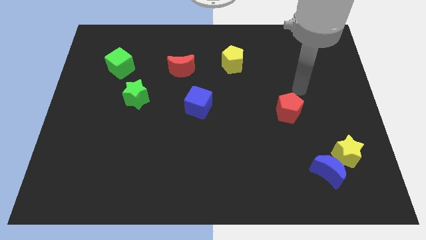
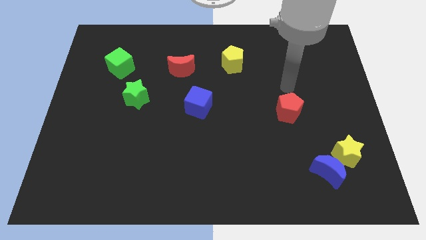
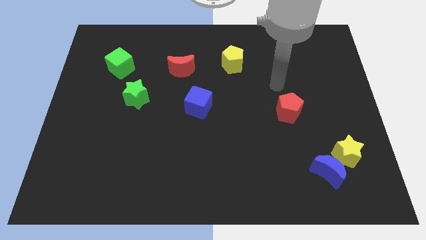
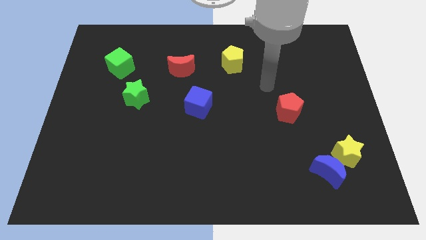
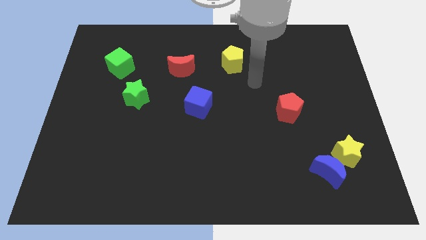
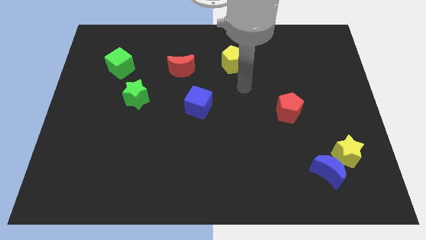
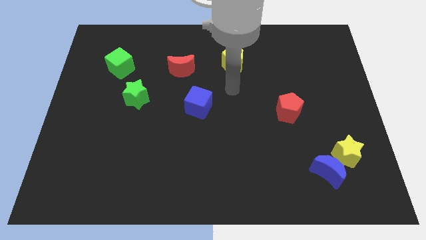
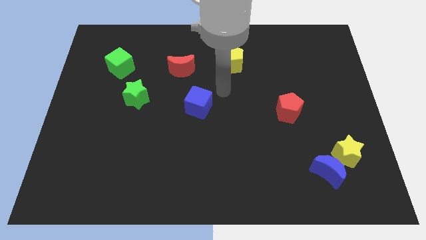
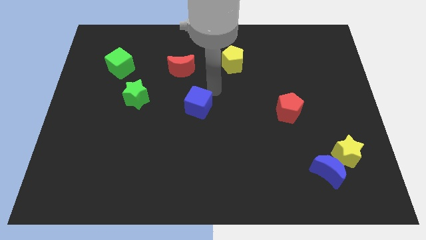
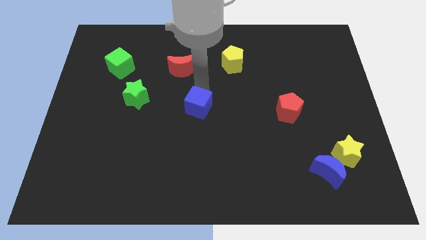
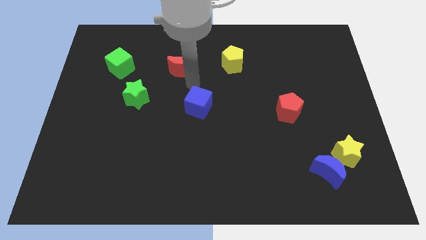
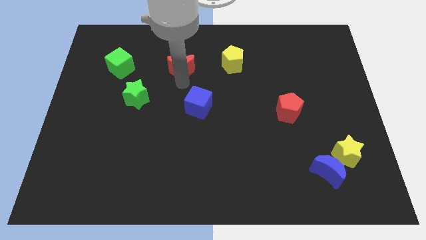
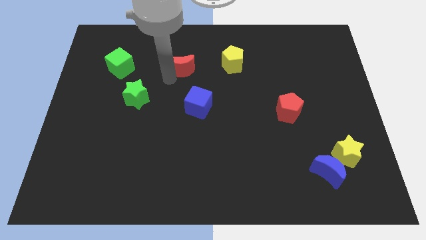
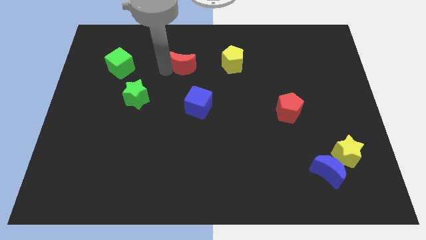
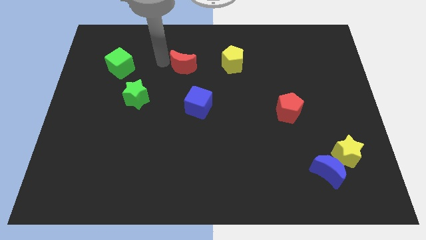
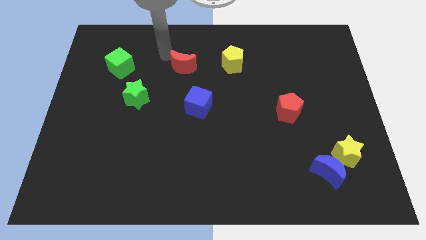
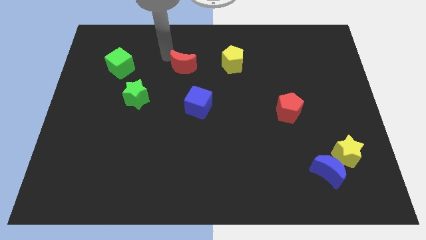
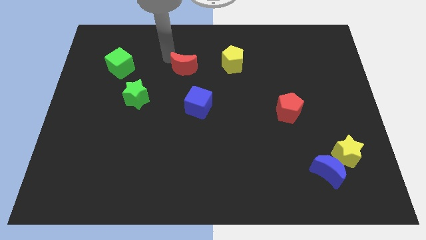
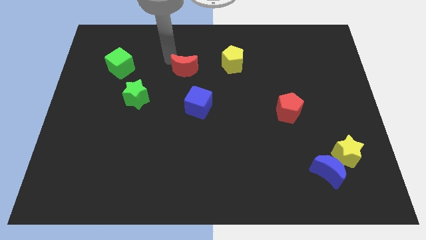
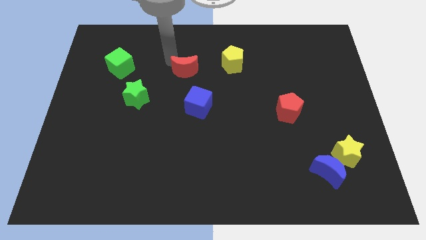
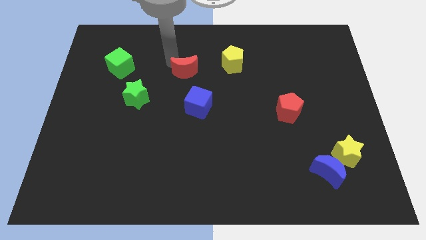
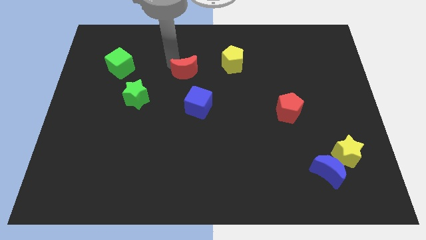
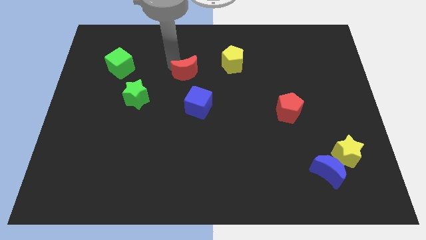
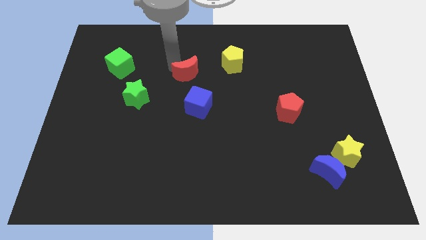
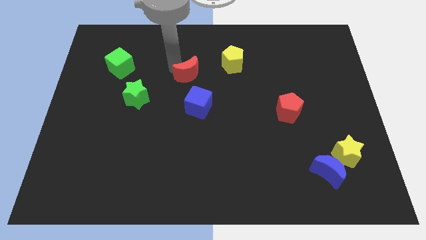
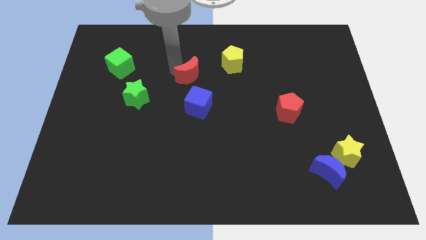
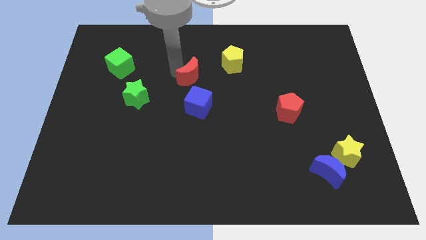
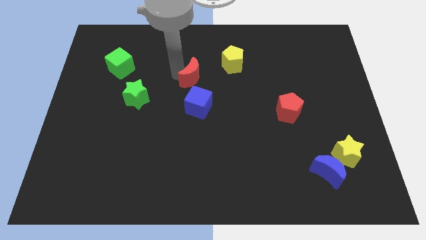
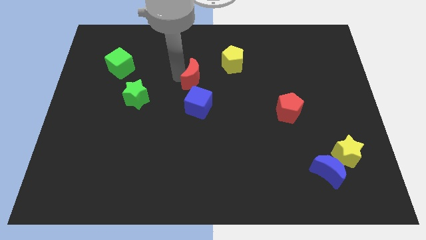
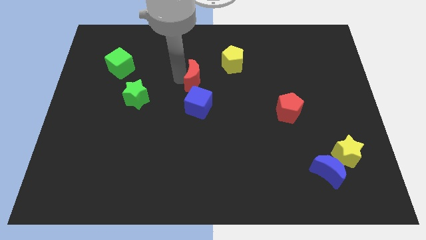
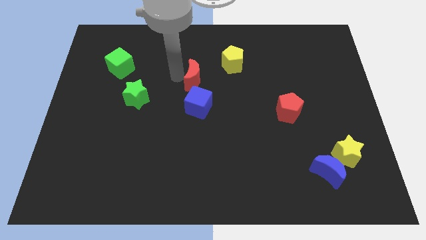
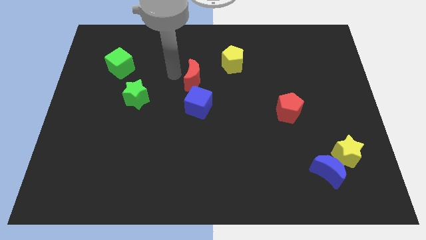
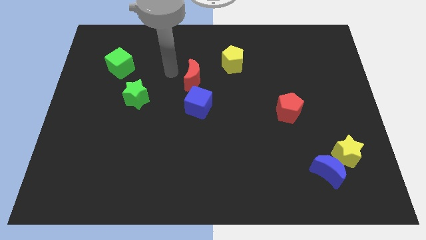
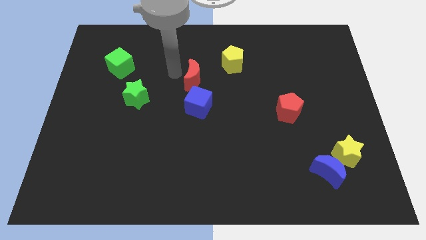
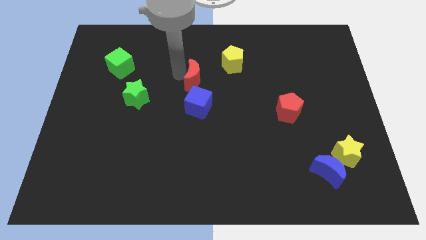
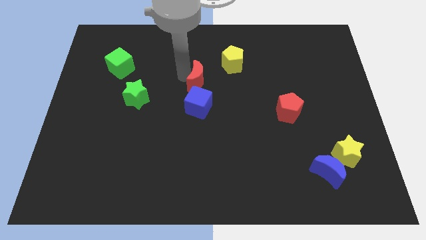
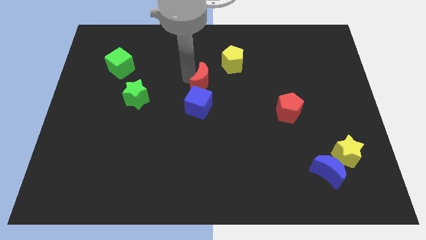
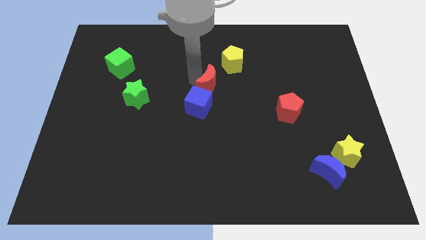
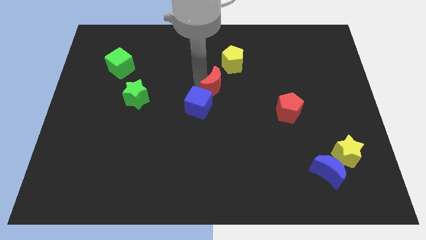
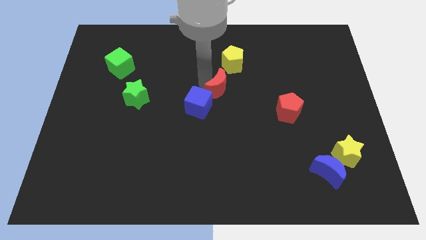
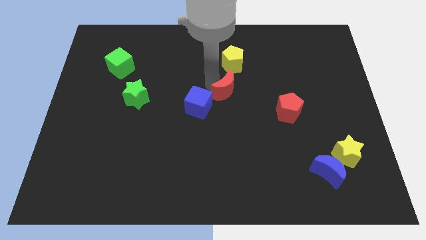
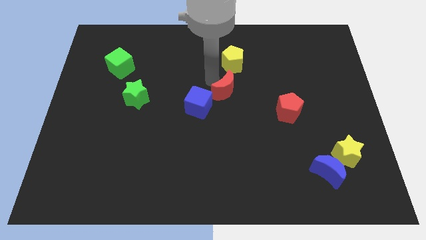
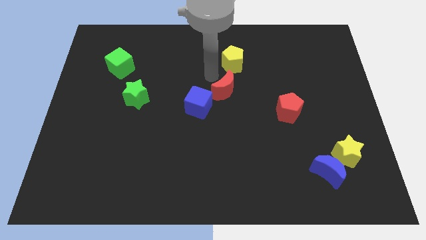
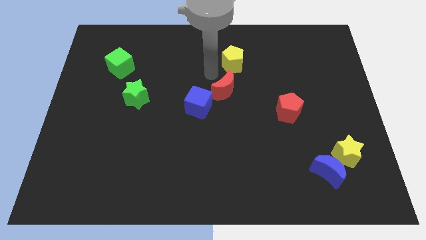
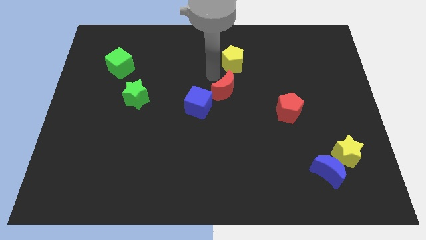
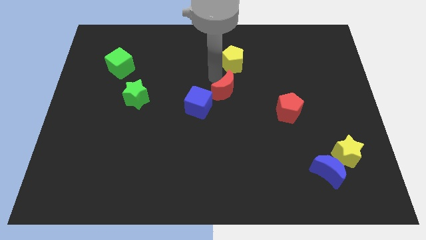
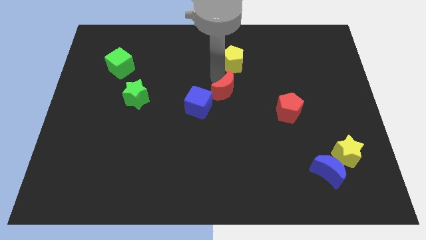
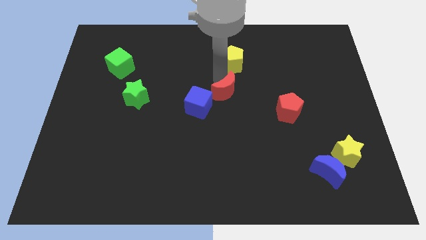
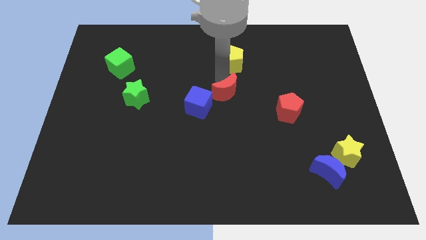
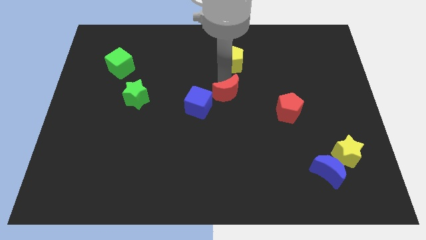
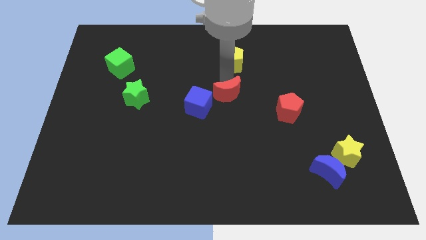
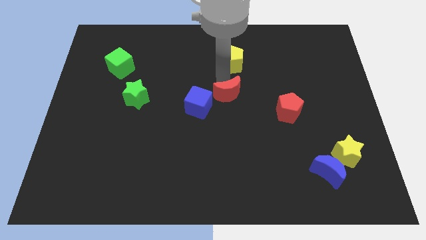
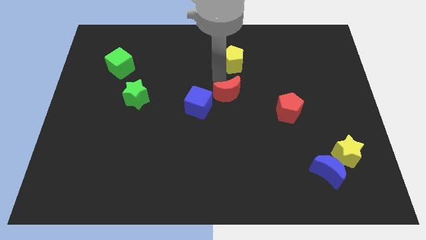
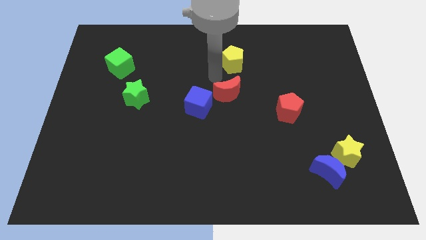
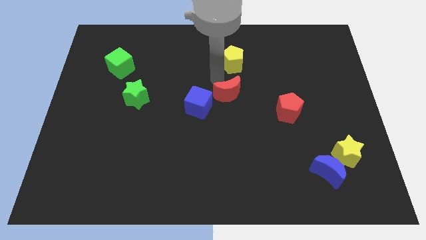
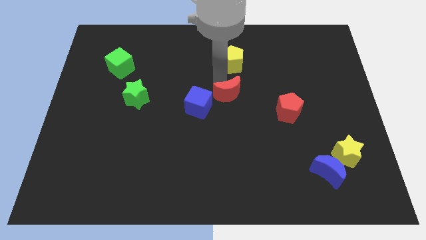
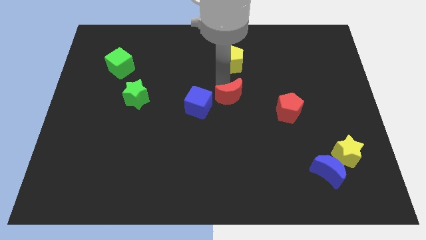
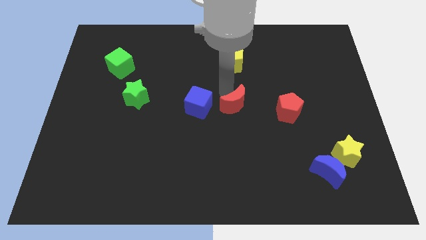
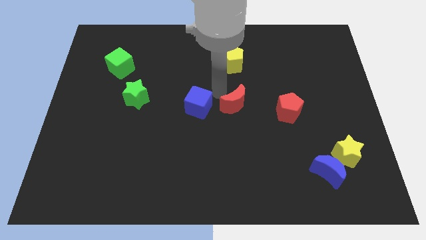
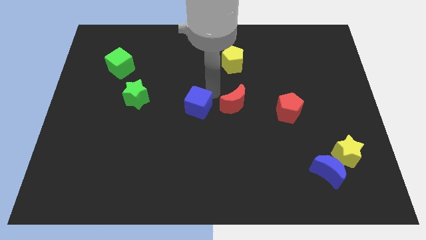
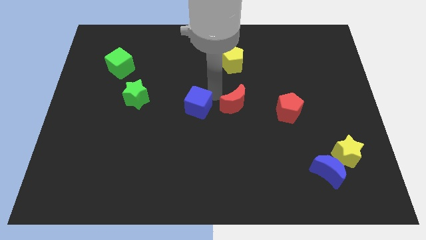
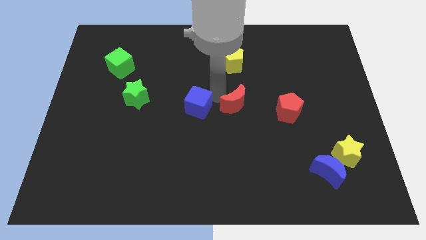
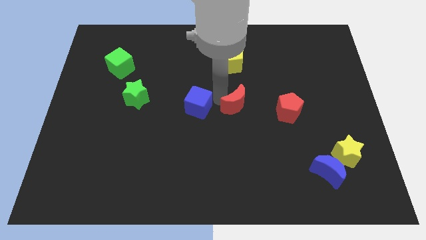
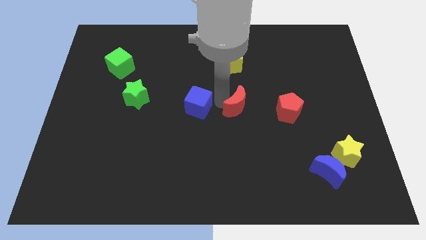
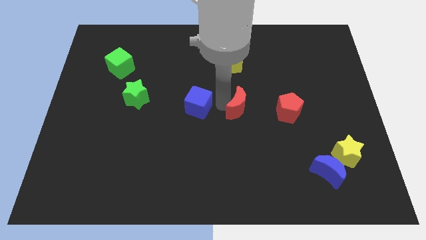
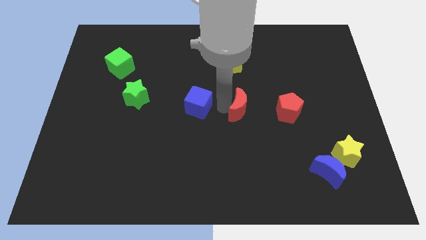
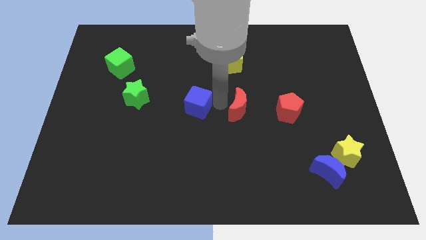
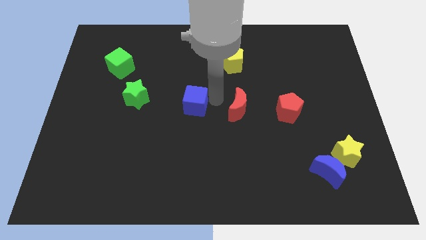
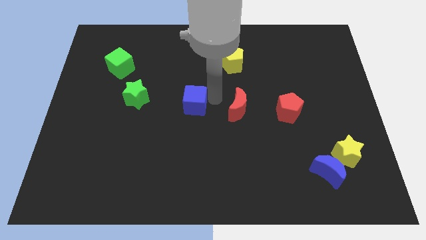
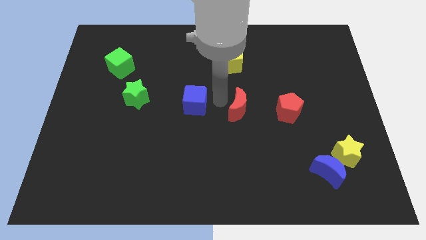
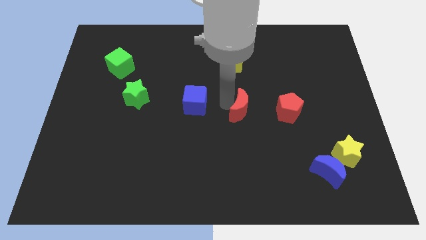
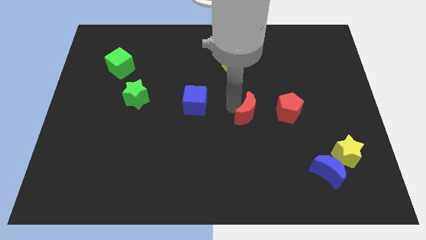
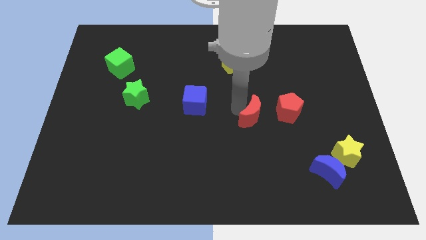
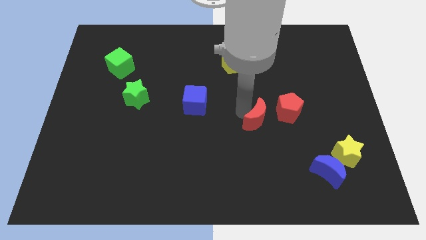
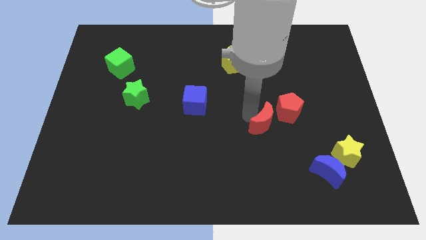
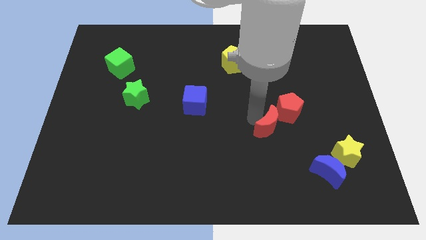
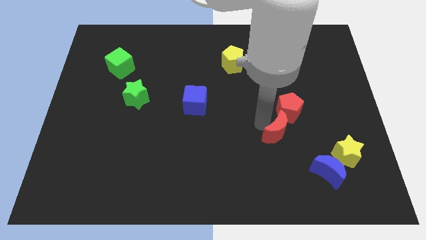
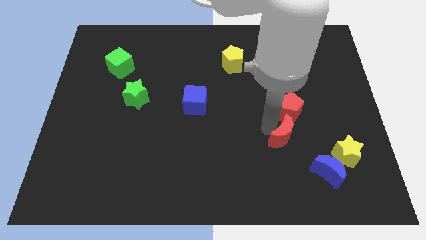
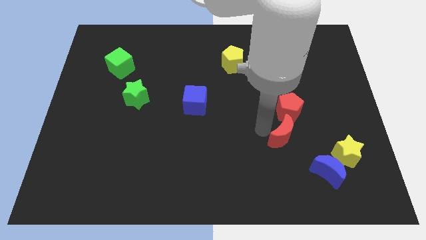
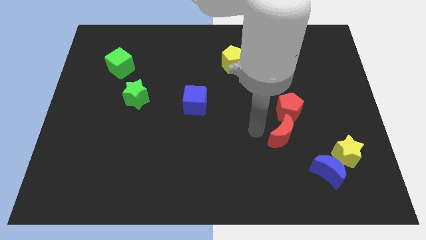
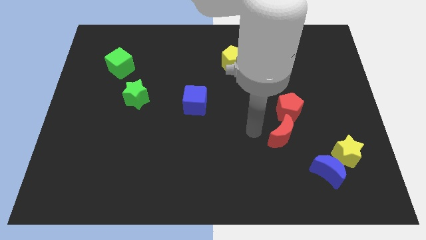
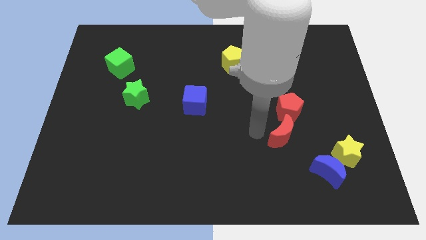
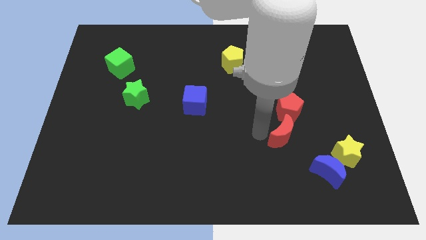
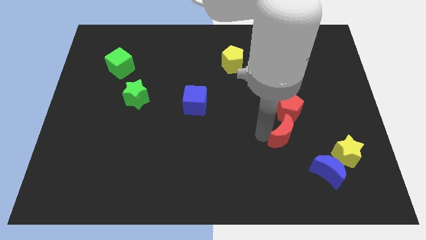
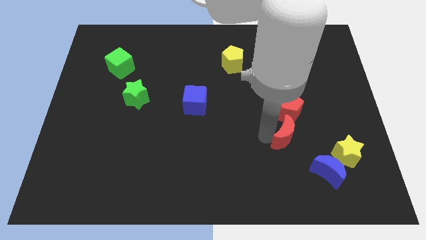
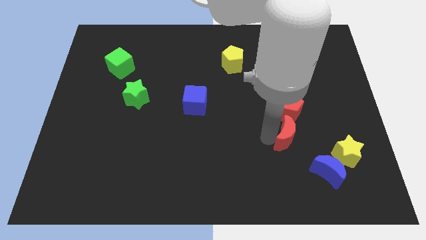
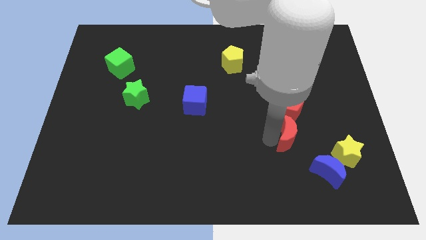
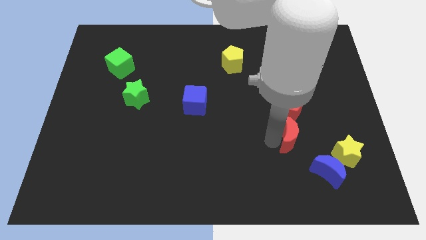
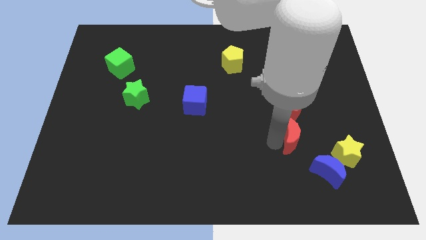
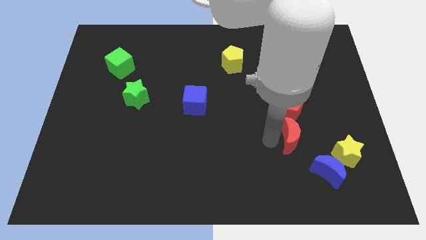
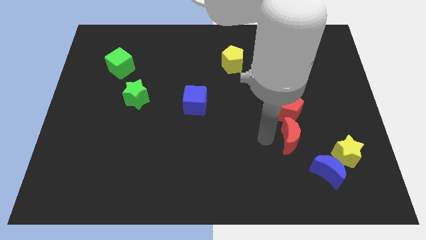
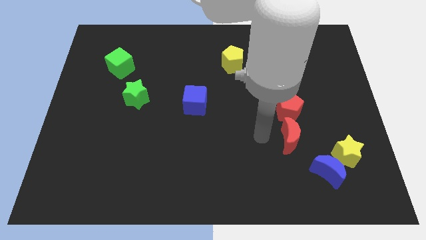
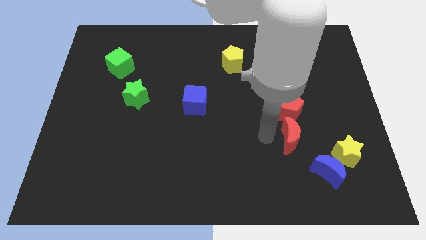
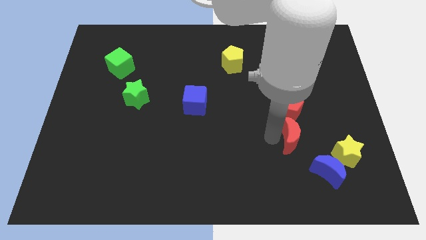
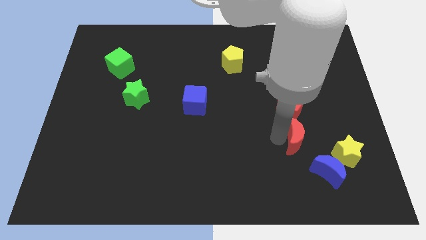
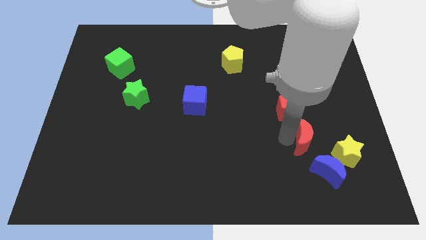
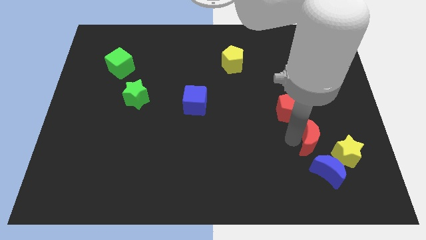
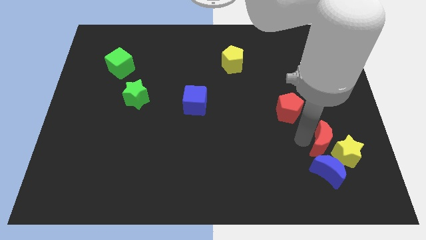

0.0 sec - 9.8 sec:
move the red moon to the yellow star
